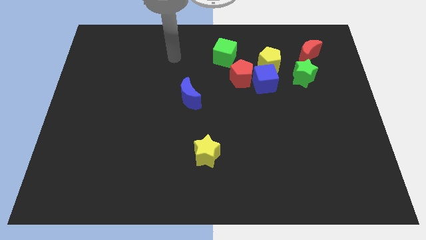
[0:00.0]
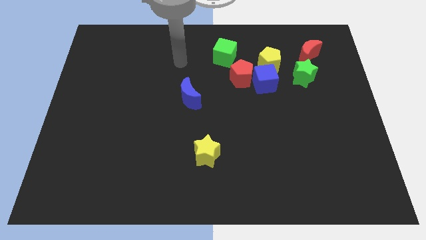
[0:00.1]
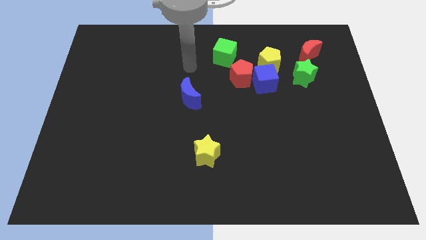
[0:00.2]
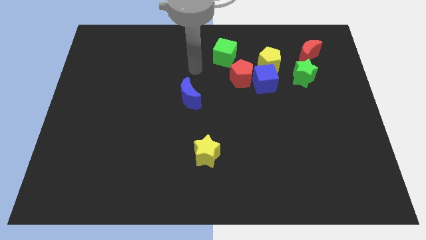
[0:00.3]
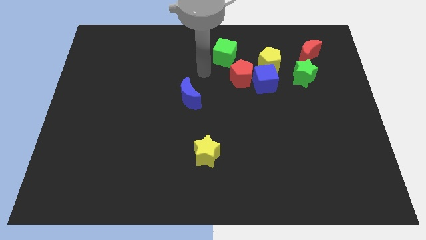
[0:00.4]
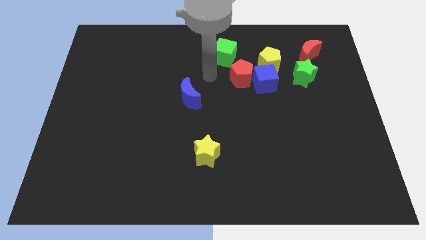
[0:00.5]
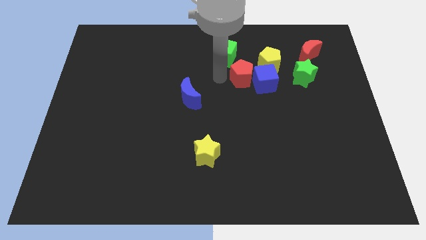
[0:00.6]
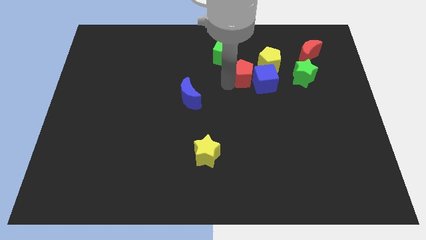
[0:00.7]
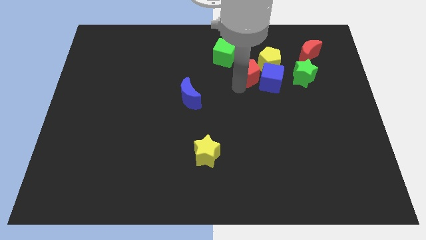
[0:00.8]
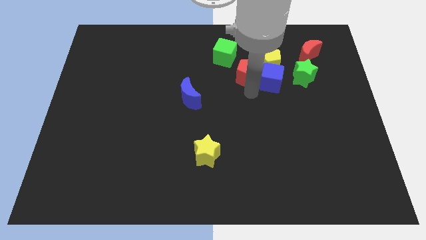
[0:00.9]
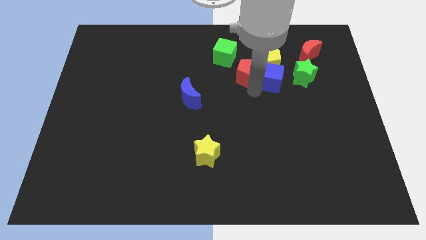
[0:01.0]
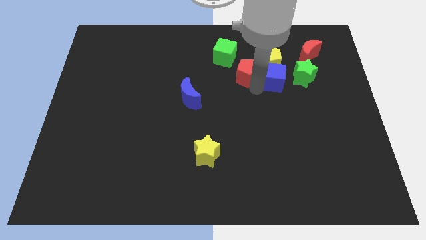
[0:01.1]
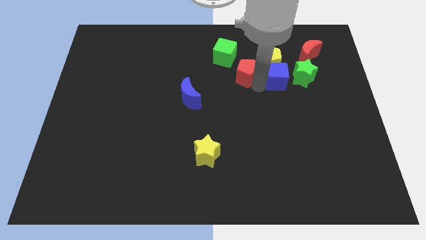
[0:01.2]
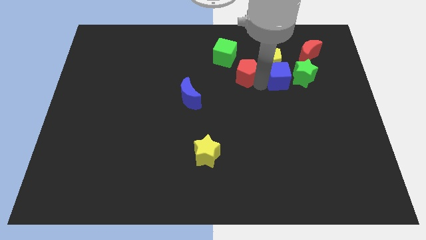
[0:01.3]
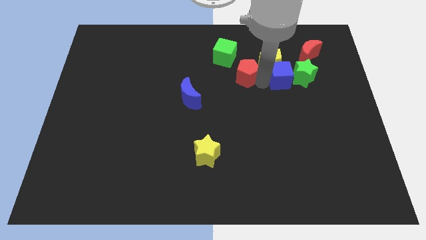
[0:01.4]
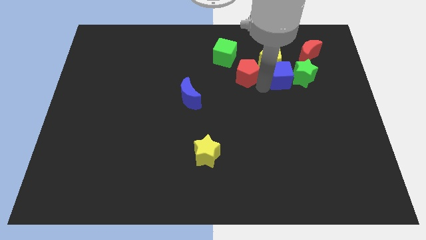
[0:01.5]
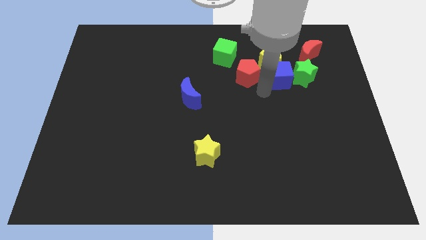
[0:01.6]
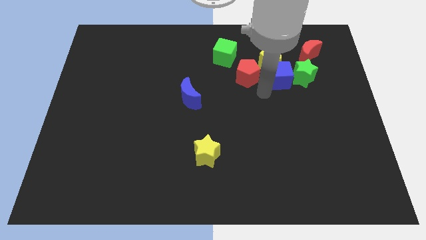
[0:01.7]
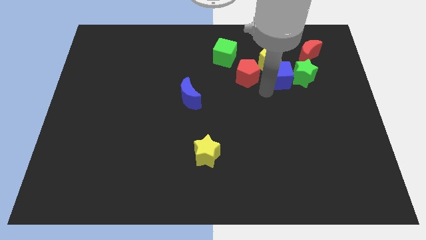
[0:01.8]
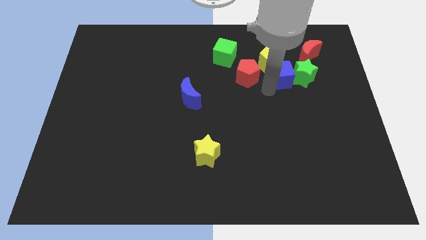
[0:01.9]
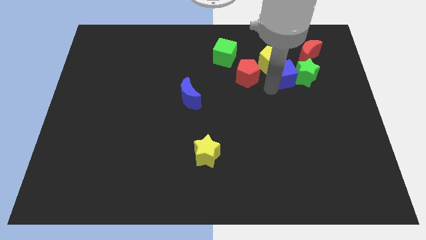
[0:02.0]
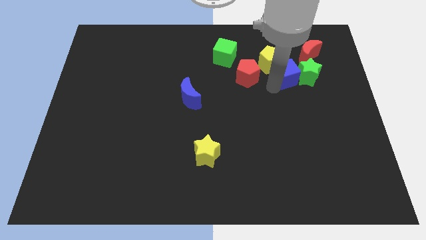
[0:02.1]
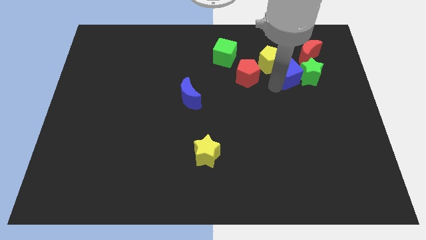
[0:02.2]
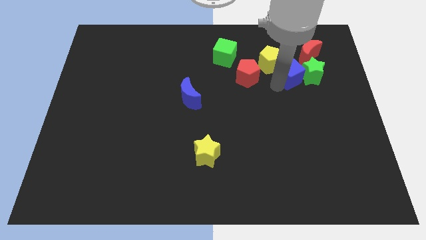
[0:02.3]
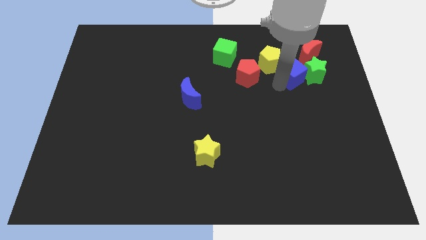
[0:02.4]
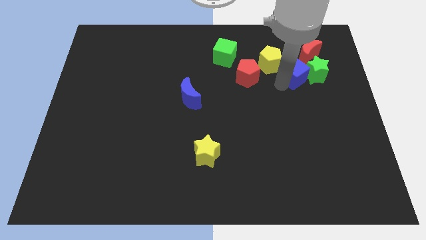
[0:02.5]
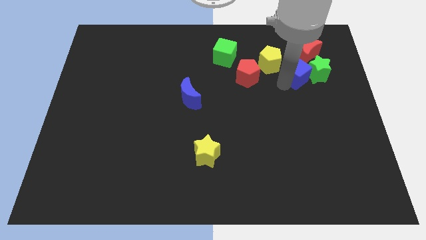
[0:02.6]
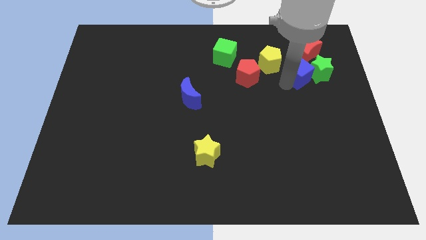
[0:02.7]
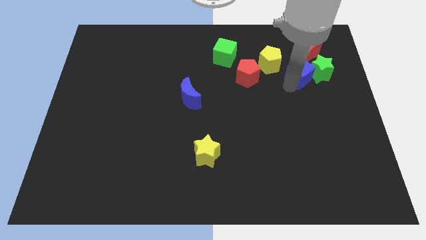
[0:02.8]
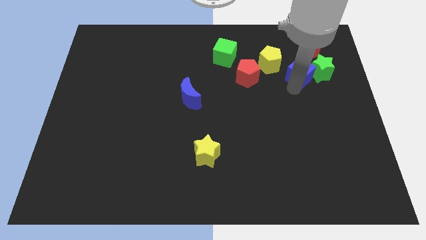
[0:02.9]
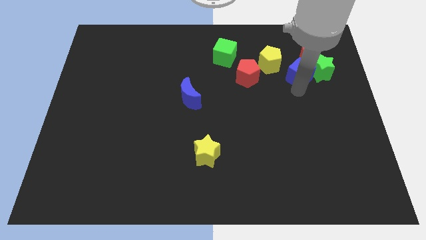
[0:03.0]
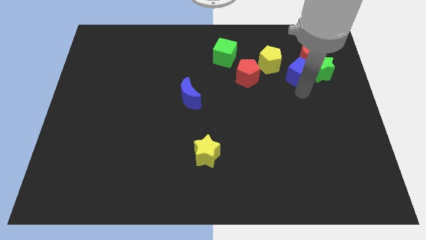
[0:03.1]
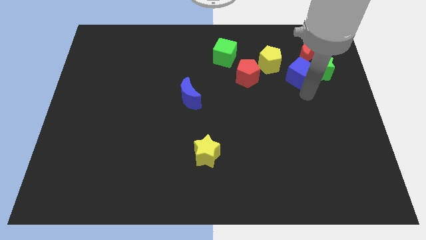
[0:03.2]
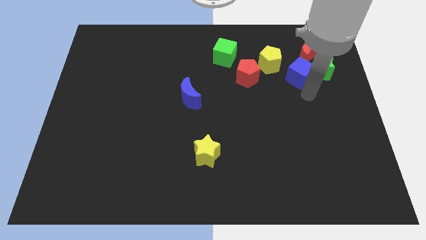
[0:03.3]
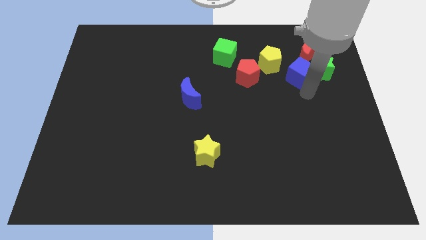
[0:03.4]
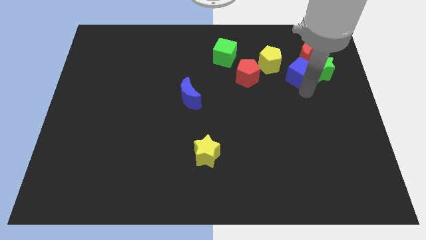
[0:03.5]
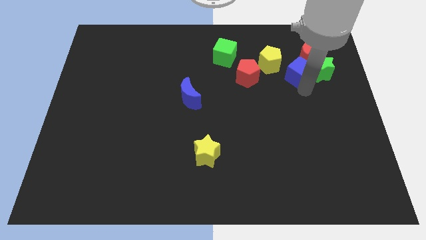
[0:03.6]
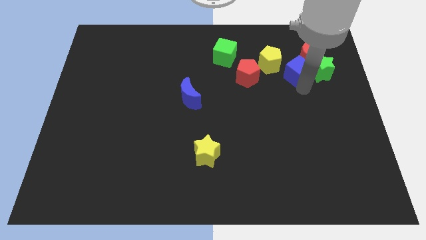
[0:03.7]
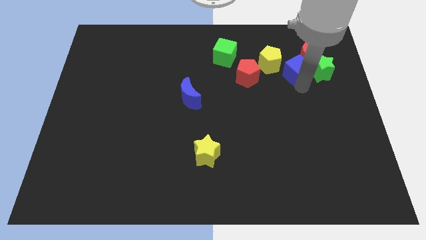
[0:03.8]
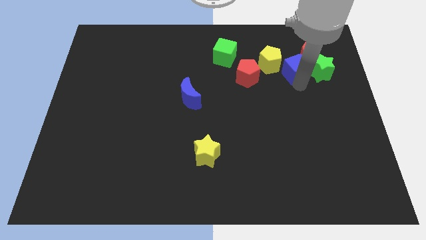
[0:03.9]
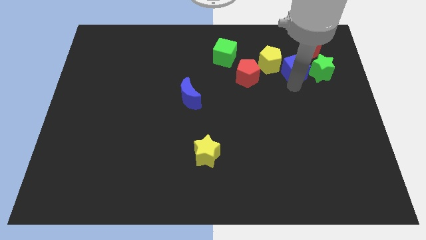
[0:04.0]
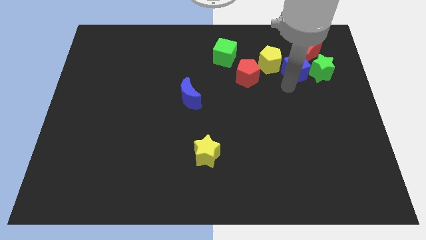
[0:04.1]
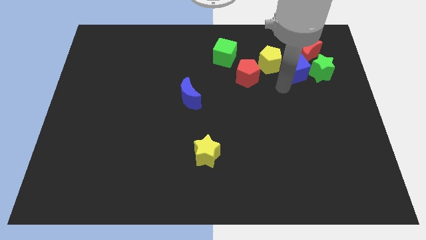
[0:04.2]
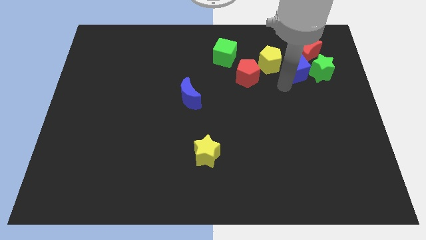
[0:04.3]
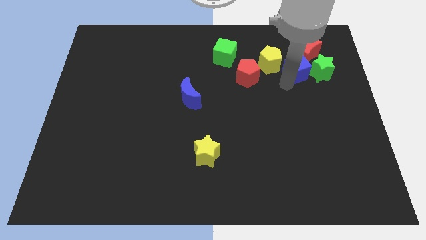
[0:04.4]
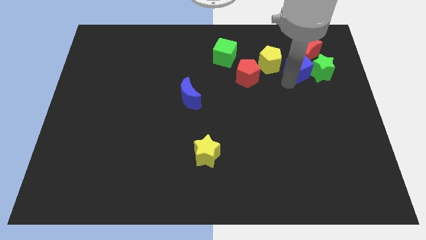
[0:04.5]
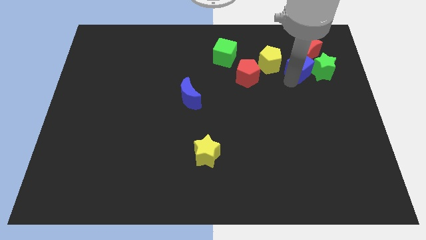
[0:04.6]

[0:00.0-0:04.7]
move the blue cube next to the red moon

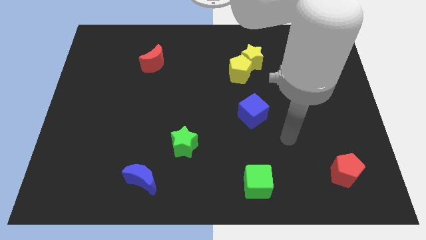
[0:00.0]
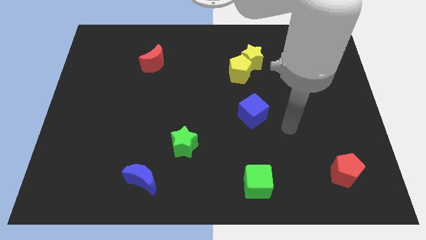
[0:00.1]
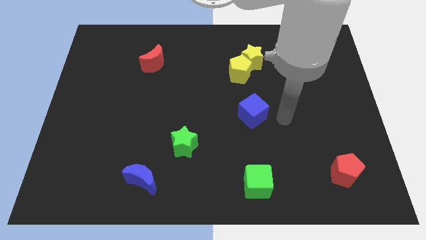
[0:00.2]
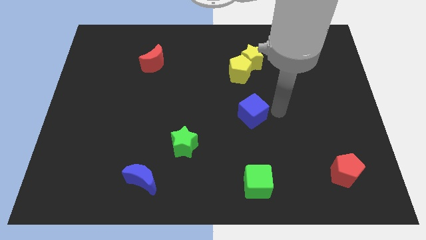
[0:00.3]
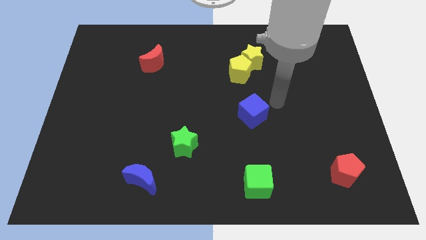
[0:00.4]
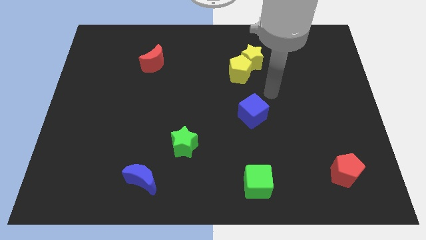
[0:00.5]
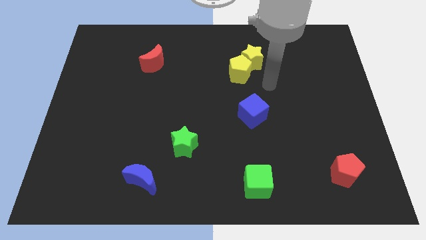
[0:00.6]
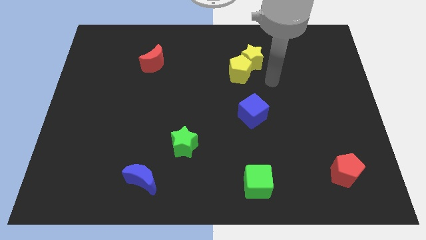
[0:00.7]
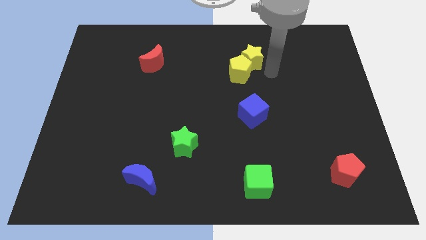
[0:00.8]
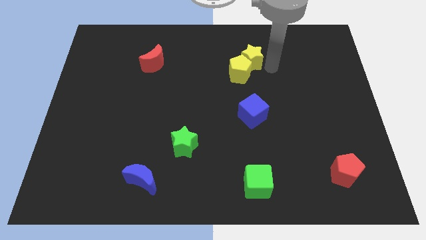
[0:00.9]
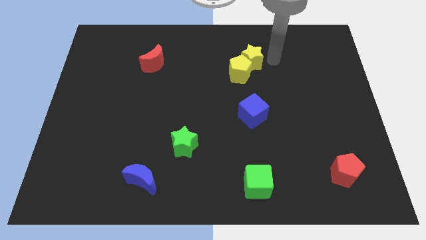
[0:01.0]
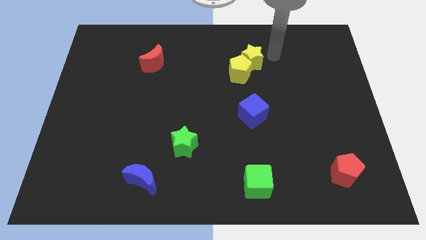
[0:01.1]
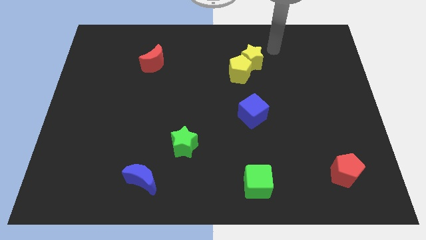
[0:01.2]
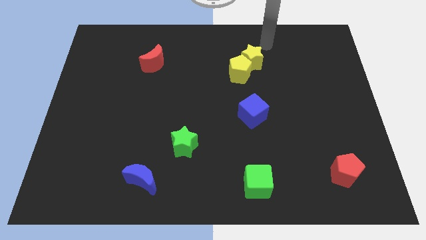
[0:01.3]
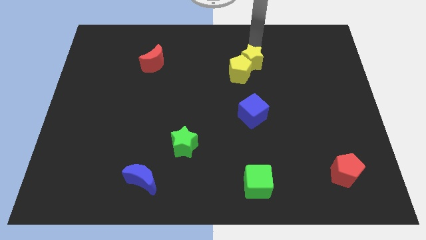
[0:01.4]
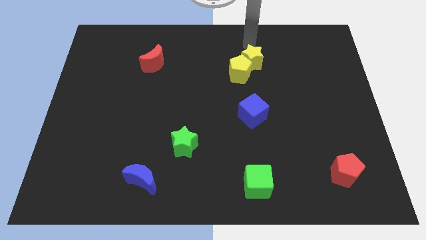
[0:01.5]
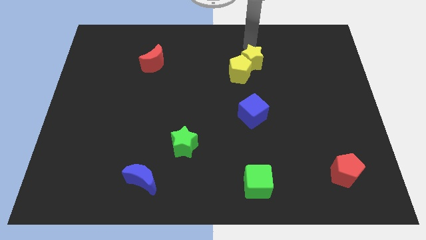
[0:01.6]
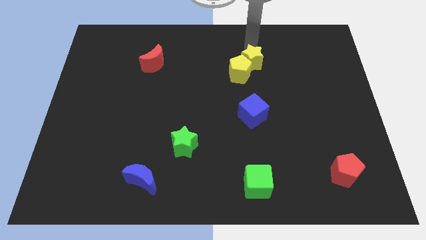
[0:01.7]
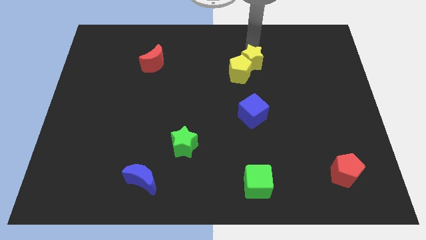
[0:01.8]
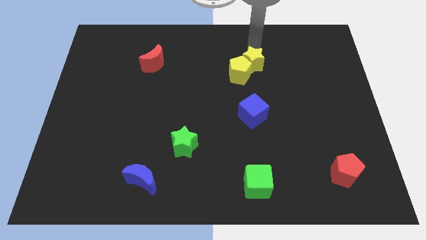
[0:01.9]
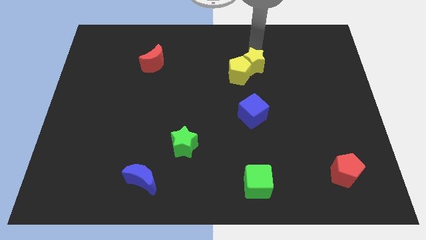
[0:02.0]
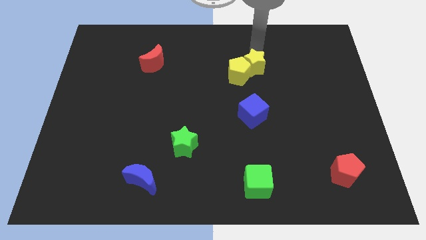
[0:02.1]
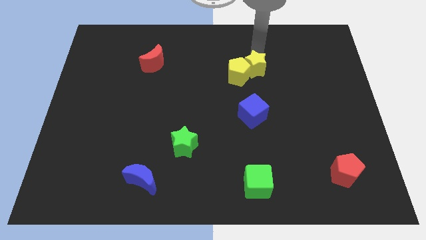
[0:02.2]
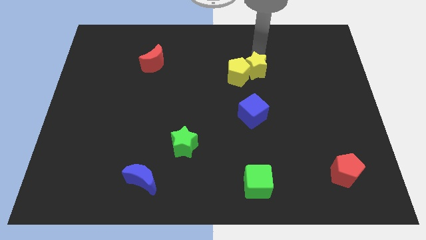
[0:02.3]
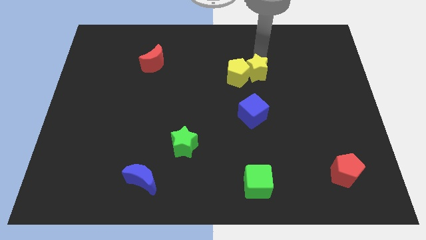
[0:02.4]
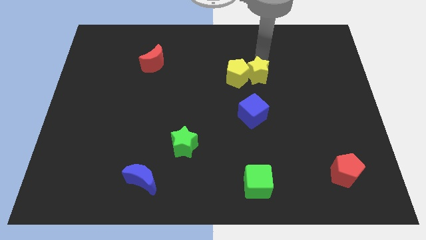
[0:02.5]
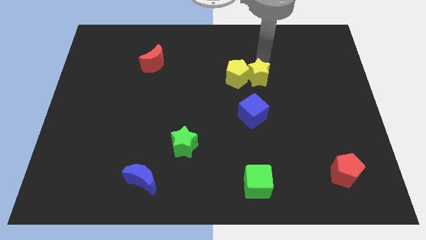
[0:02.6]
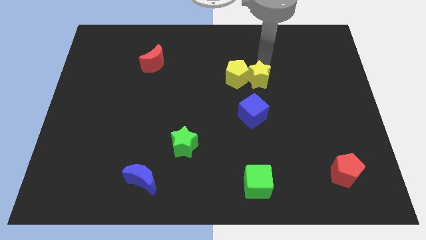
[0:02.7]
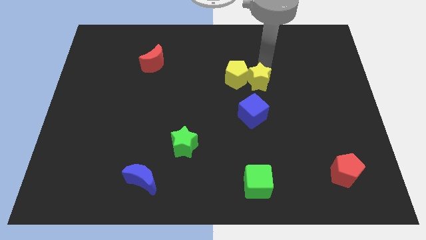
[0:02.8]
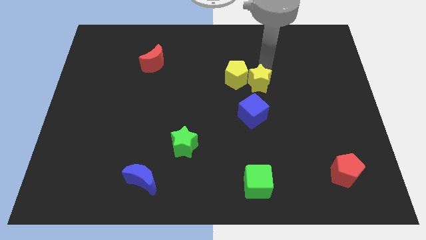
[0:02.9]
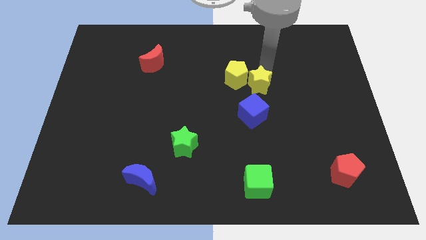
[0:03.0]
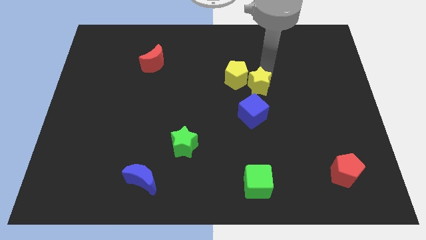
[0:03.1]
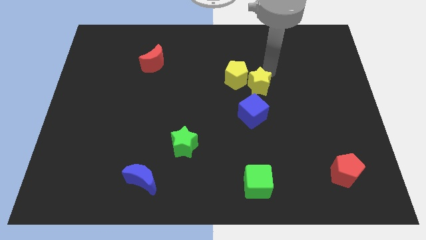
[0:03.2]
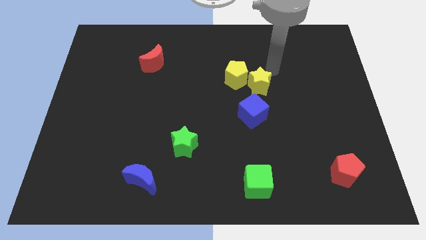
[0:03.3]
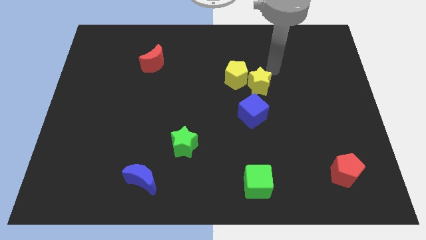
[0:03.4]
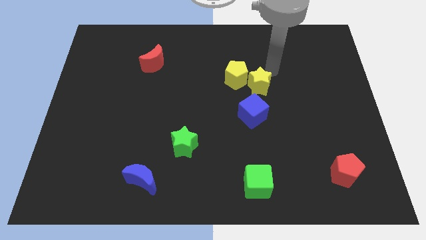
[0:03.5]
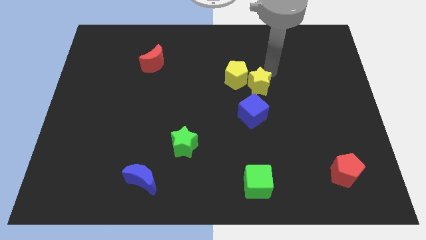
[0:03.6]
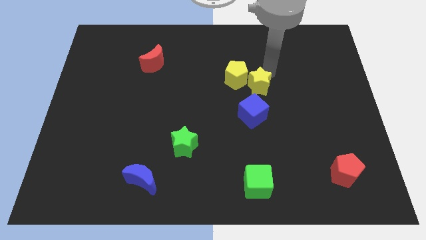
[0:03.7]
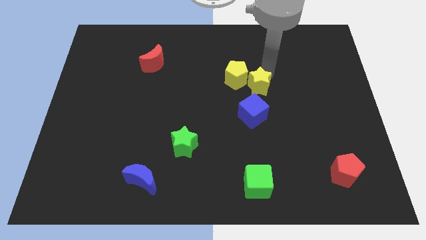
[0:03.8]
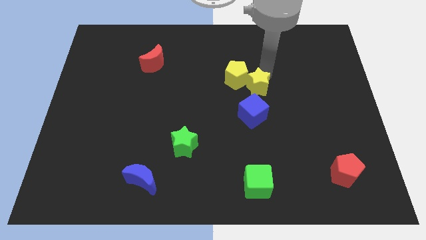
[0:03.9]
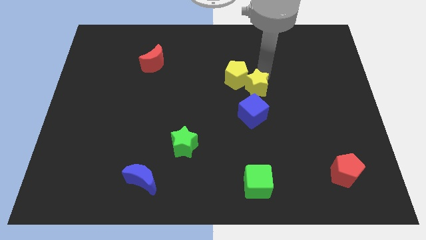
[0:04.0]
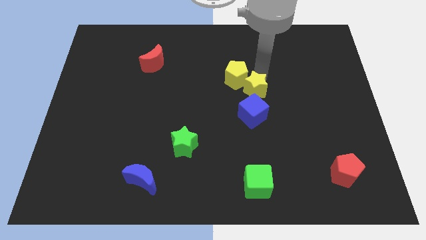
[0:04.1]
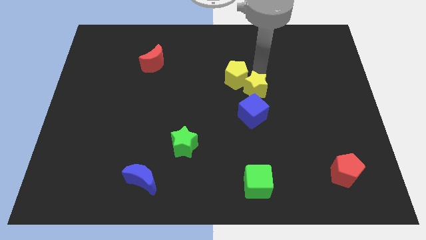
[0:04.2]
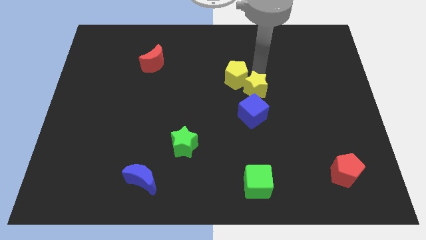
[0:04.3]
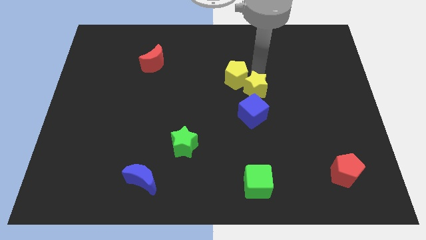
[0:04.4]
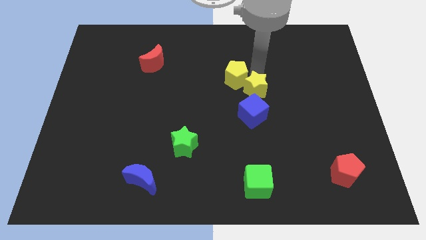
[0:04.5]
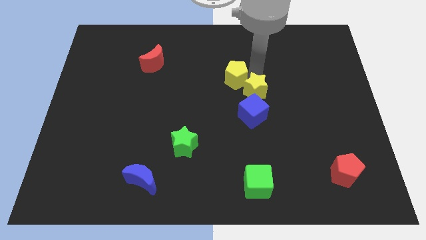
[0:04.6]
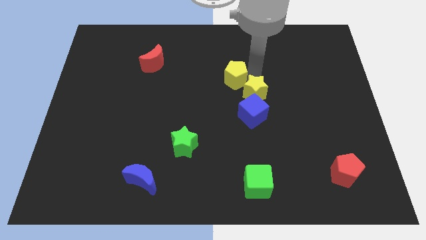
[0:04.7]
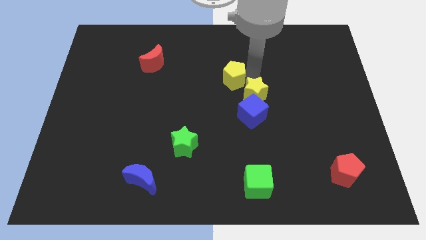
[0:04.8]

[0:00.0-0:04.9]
push the yellow star to the blue cube
